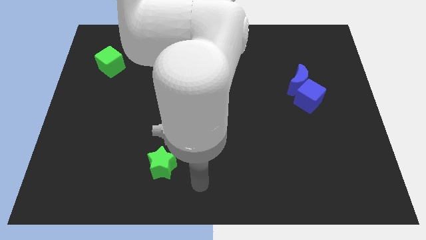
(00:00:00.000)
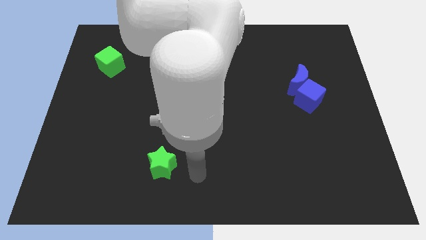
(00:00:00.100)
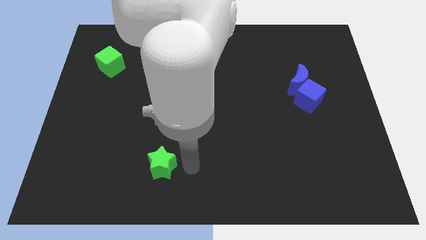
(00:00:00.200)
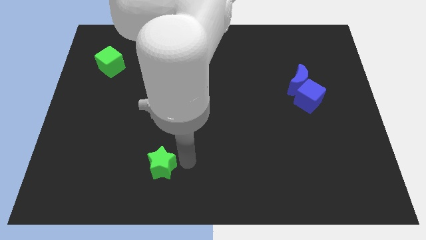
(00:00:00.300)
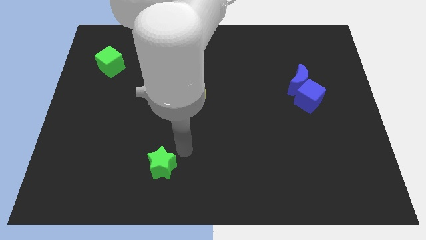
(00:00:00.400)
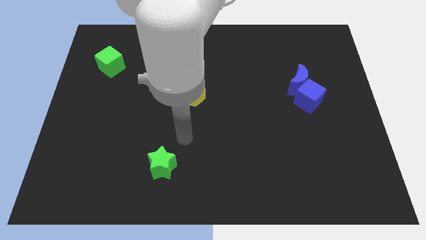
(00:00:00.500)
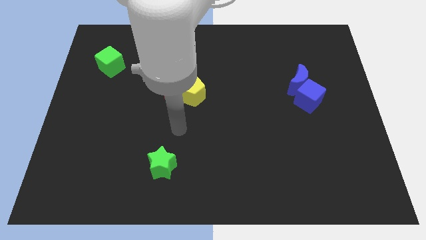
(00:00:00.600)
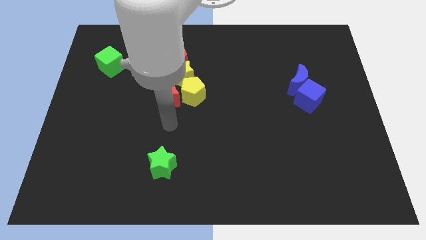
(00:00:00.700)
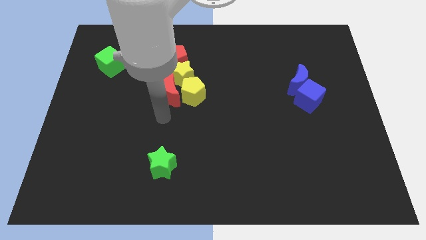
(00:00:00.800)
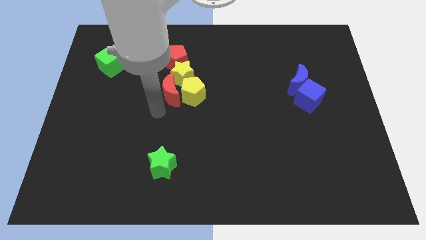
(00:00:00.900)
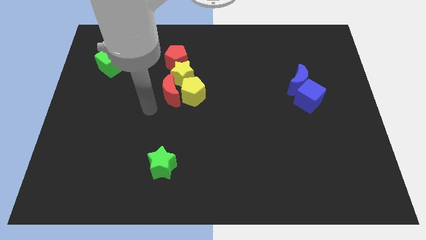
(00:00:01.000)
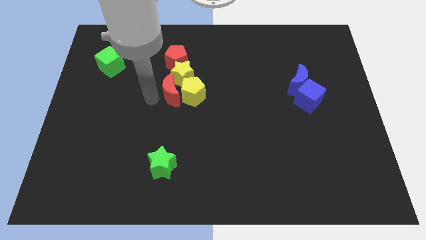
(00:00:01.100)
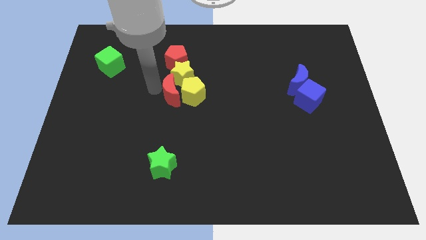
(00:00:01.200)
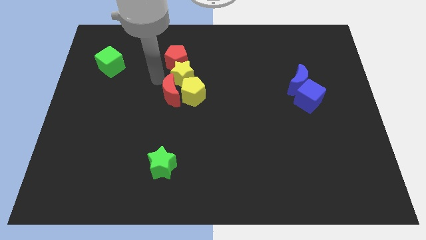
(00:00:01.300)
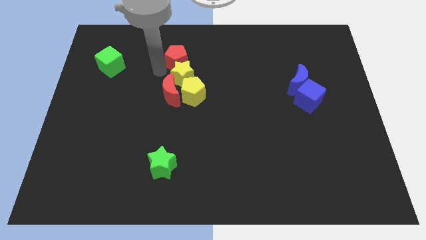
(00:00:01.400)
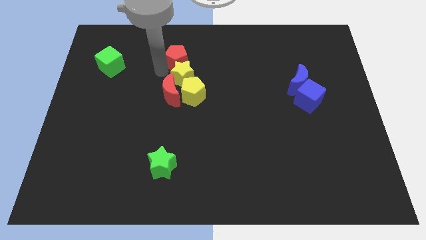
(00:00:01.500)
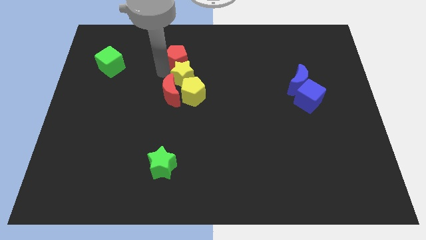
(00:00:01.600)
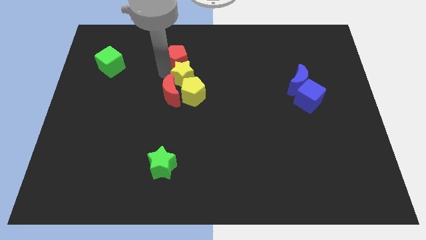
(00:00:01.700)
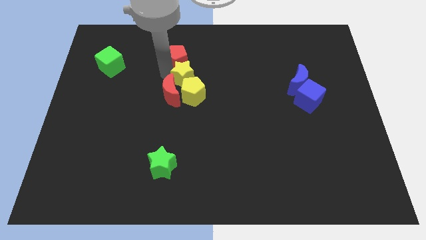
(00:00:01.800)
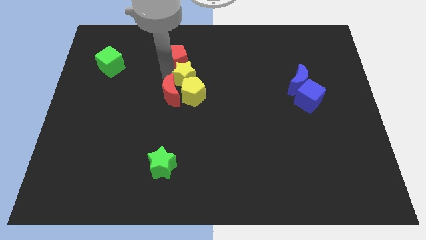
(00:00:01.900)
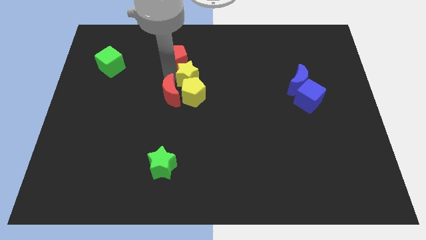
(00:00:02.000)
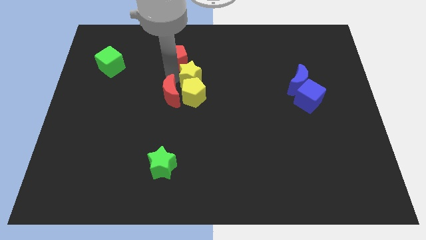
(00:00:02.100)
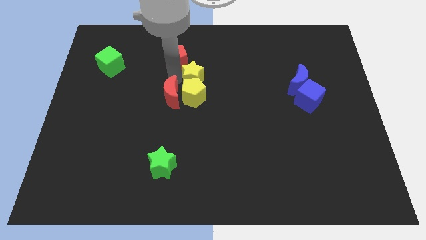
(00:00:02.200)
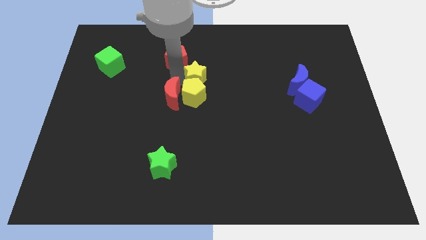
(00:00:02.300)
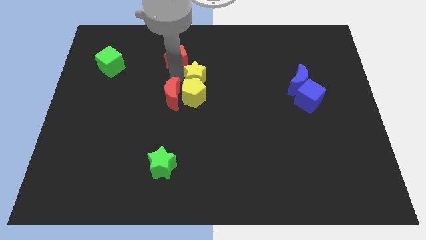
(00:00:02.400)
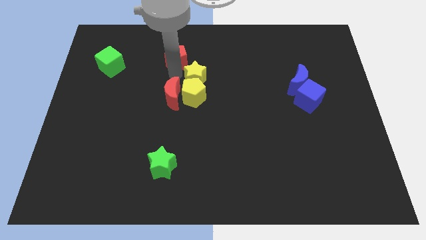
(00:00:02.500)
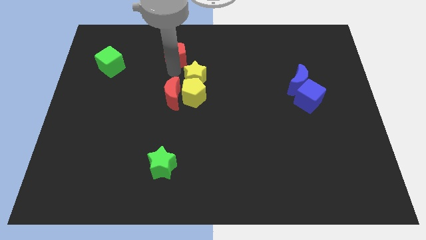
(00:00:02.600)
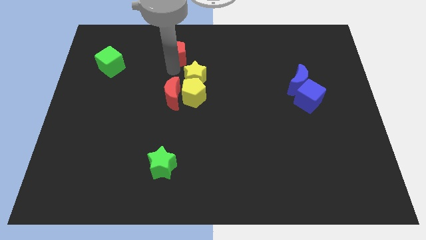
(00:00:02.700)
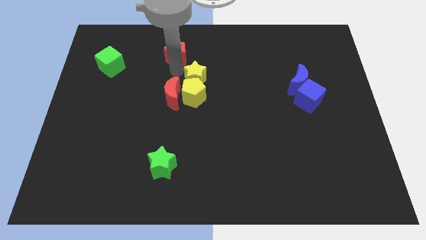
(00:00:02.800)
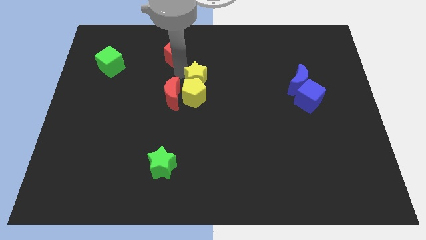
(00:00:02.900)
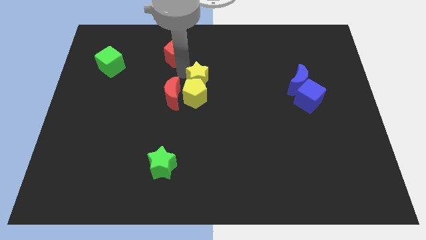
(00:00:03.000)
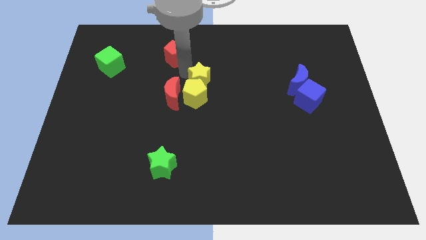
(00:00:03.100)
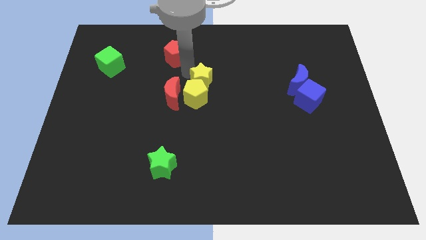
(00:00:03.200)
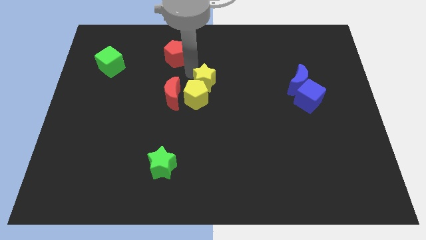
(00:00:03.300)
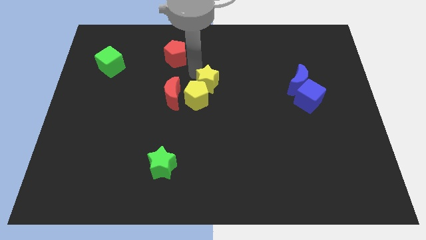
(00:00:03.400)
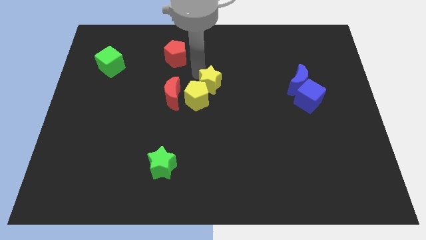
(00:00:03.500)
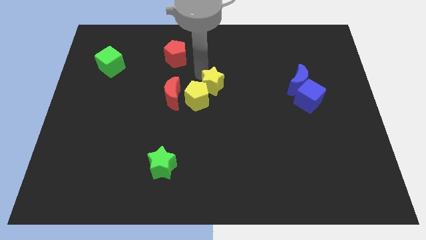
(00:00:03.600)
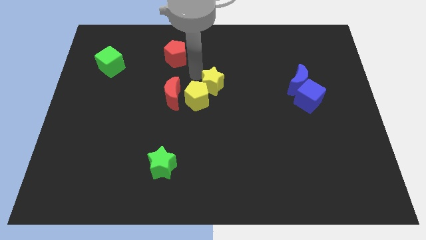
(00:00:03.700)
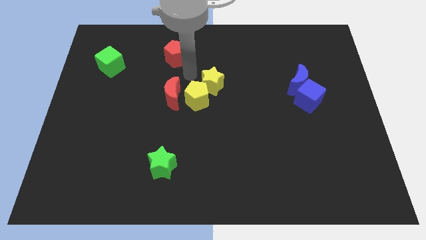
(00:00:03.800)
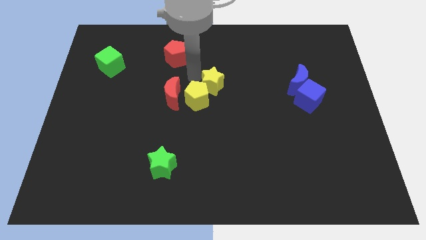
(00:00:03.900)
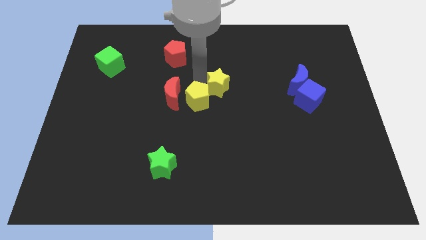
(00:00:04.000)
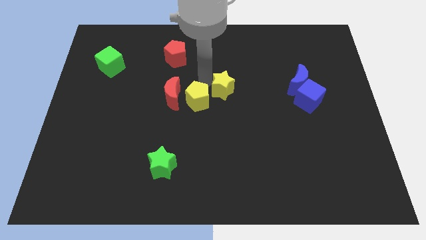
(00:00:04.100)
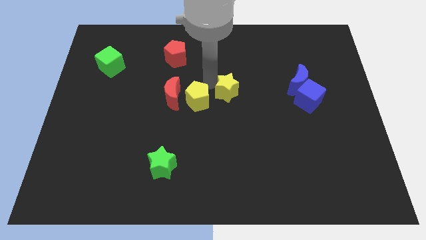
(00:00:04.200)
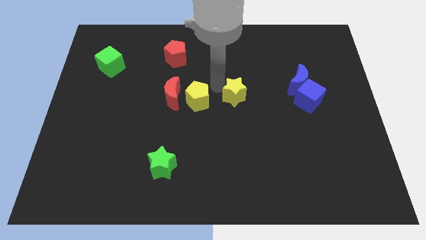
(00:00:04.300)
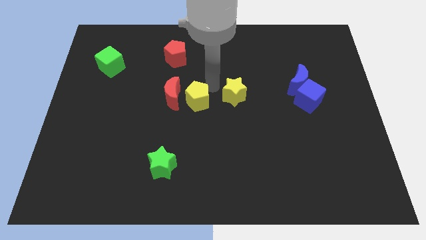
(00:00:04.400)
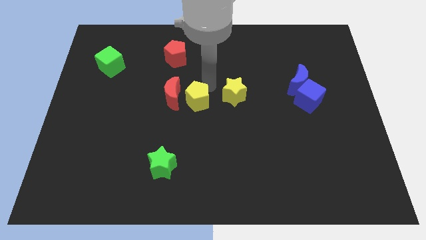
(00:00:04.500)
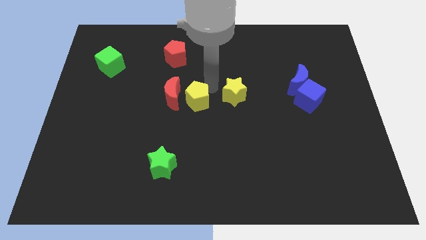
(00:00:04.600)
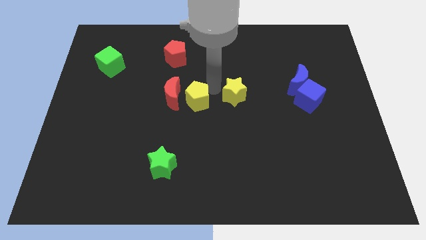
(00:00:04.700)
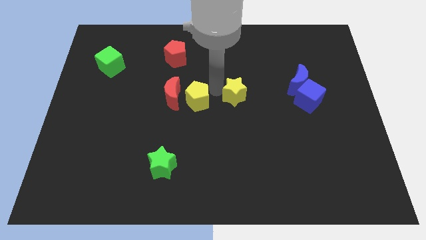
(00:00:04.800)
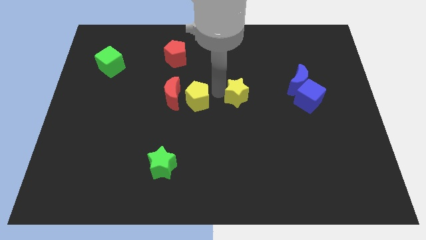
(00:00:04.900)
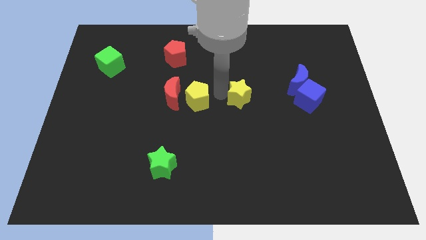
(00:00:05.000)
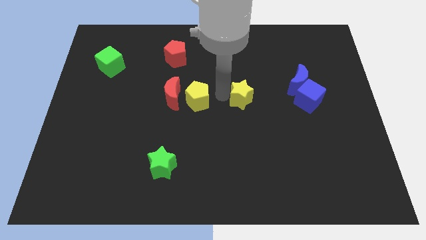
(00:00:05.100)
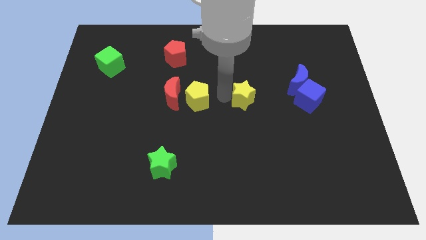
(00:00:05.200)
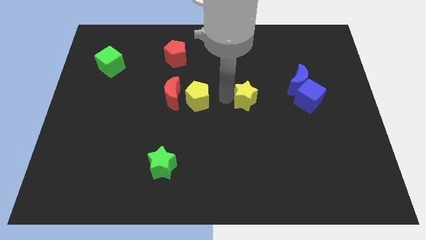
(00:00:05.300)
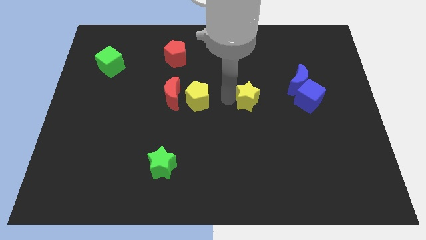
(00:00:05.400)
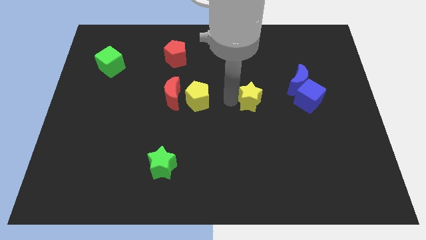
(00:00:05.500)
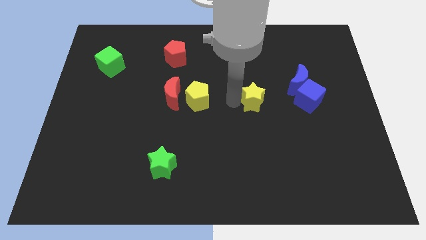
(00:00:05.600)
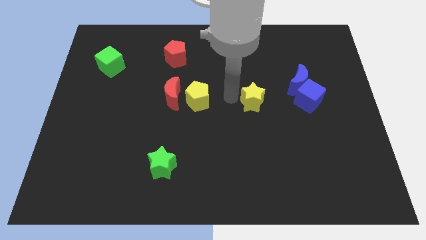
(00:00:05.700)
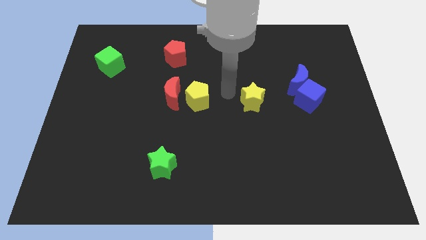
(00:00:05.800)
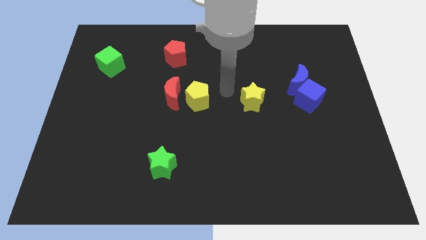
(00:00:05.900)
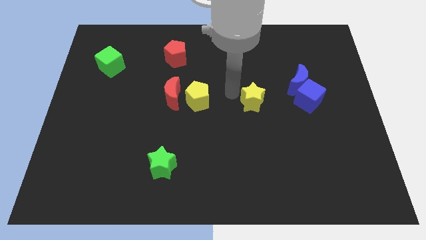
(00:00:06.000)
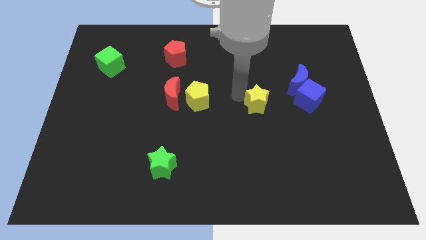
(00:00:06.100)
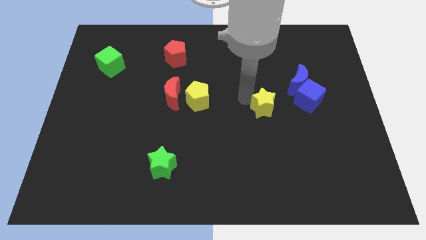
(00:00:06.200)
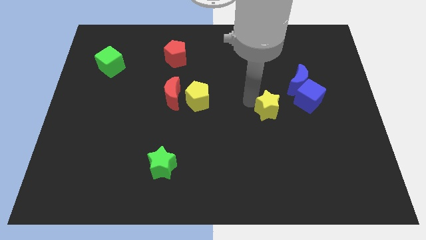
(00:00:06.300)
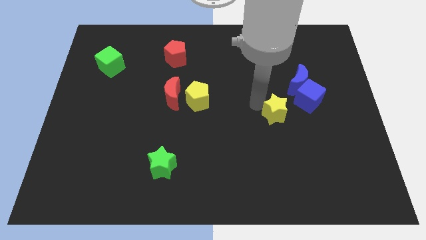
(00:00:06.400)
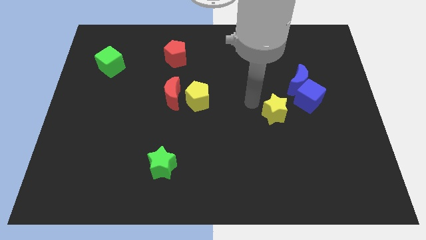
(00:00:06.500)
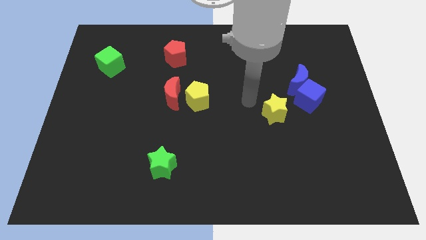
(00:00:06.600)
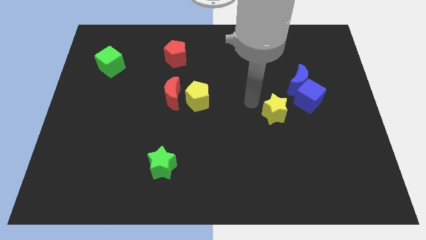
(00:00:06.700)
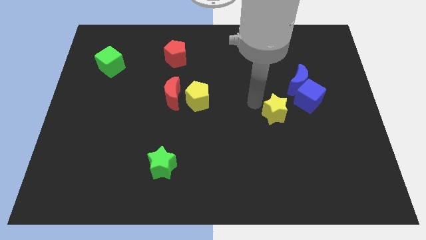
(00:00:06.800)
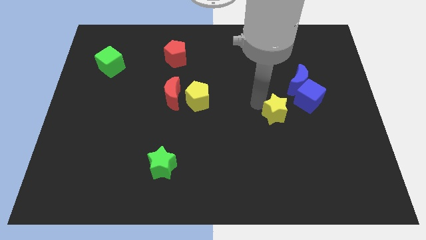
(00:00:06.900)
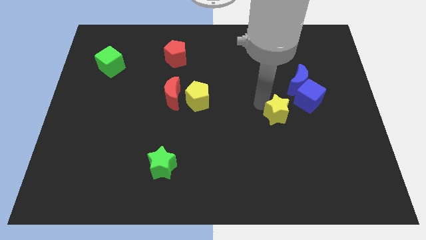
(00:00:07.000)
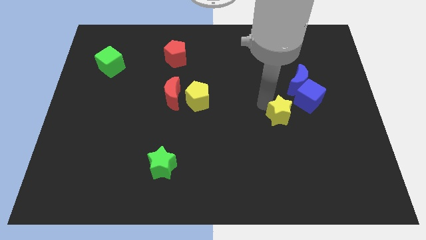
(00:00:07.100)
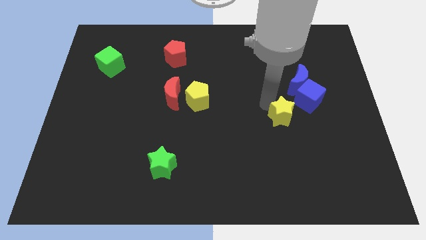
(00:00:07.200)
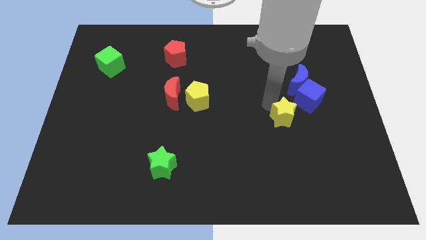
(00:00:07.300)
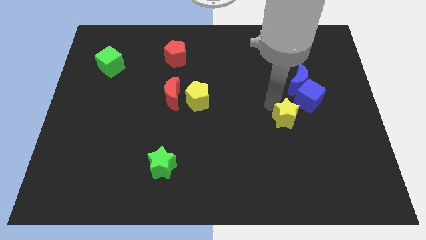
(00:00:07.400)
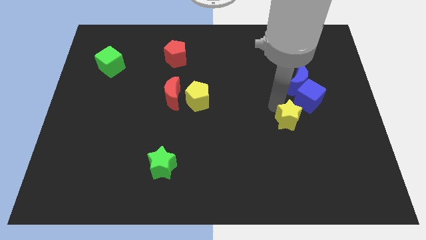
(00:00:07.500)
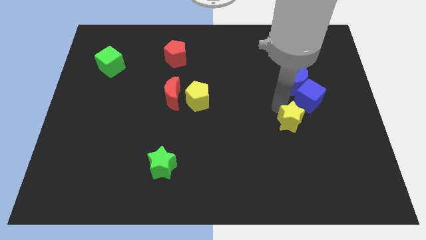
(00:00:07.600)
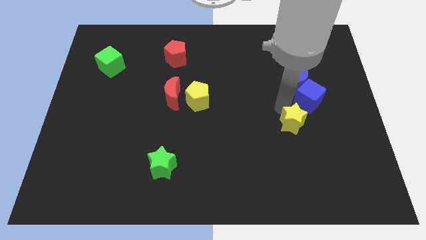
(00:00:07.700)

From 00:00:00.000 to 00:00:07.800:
slide the yellow star to the bottom of the blue cube

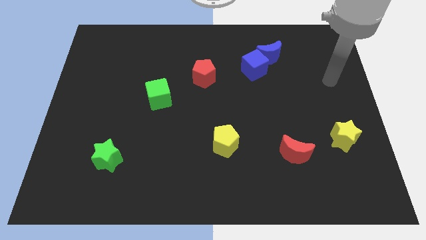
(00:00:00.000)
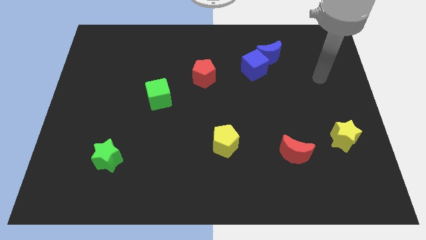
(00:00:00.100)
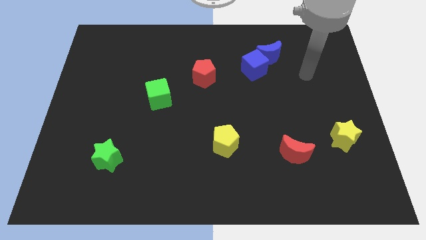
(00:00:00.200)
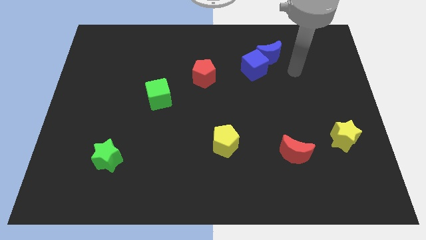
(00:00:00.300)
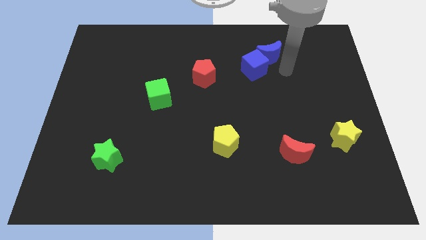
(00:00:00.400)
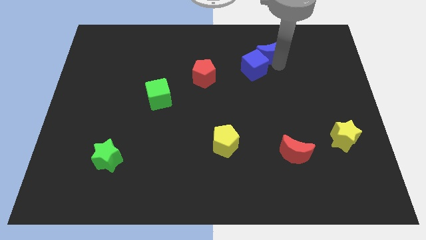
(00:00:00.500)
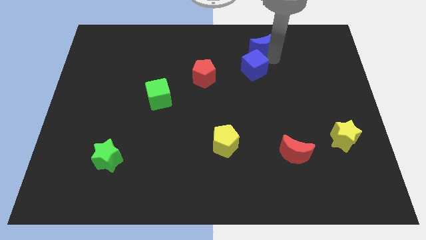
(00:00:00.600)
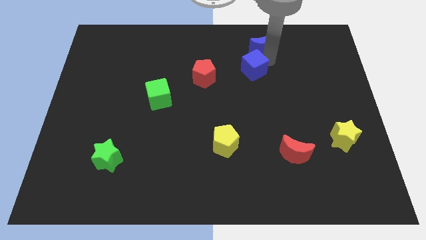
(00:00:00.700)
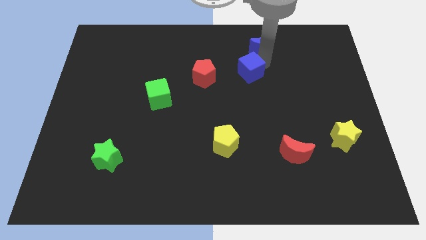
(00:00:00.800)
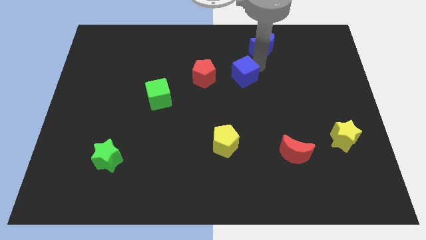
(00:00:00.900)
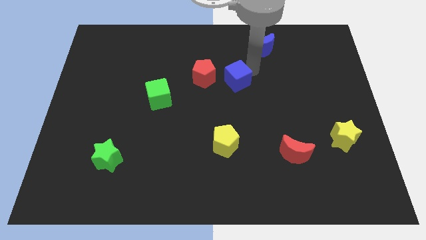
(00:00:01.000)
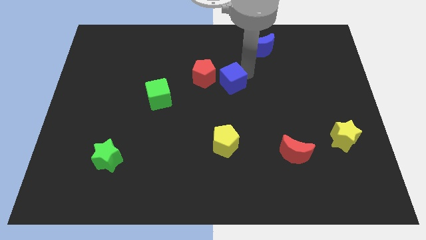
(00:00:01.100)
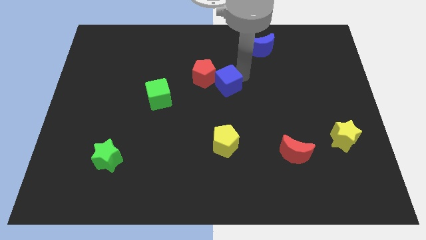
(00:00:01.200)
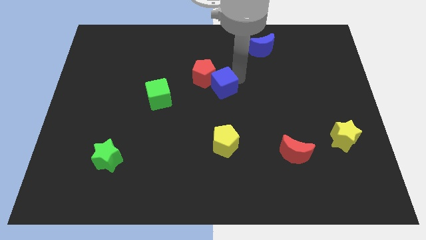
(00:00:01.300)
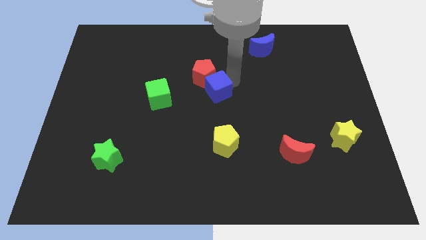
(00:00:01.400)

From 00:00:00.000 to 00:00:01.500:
move the blue cube to the right of the green cube
